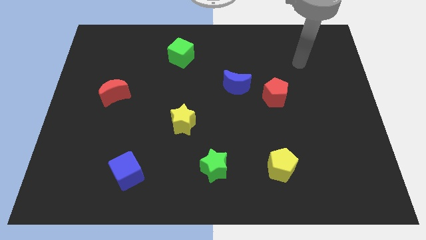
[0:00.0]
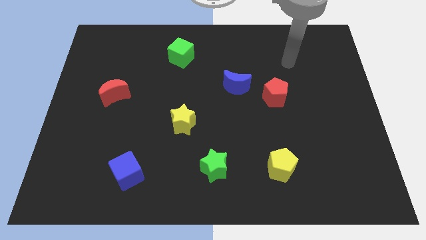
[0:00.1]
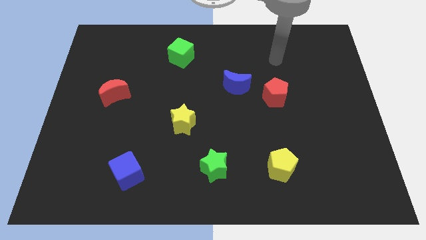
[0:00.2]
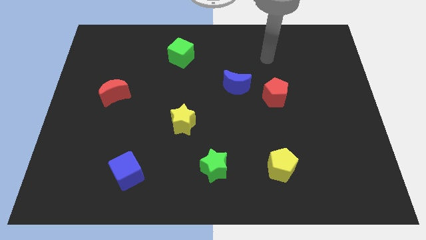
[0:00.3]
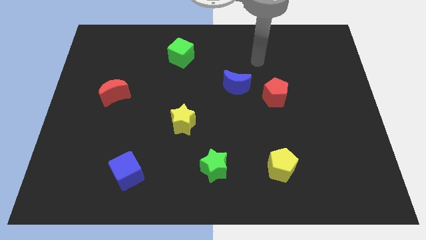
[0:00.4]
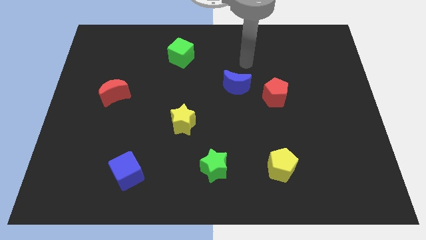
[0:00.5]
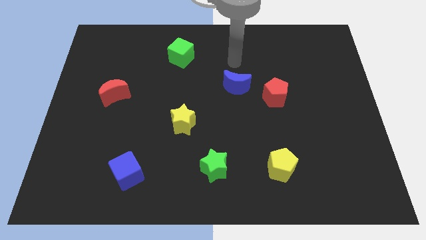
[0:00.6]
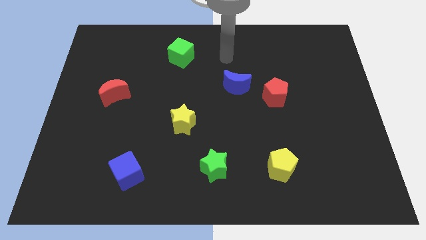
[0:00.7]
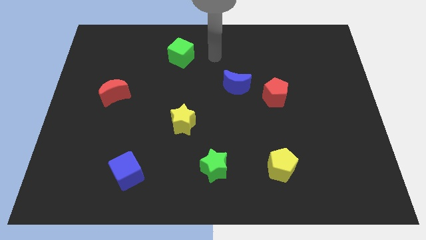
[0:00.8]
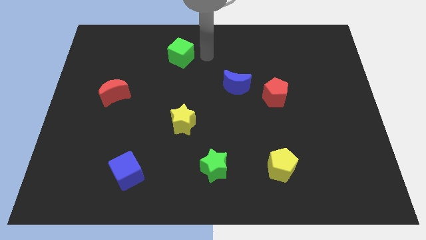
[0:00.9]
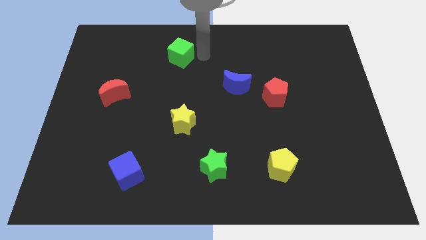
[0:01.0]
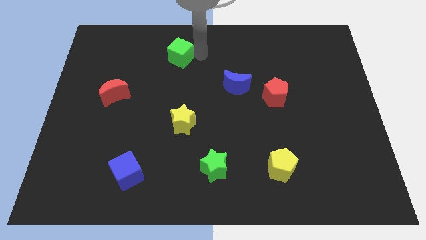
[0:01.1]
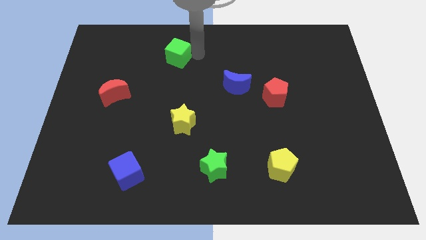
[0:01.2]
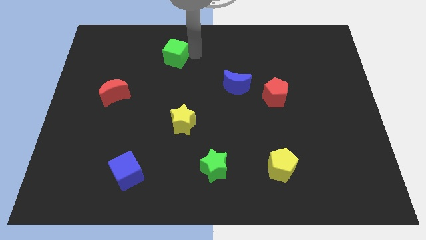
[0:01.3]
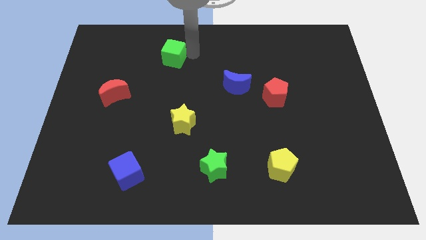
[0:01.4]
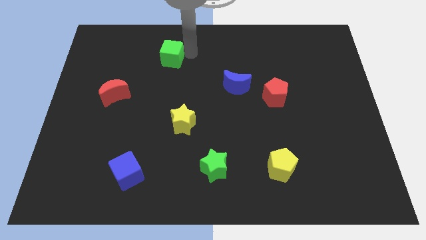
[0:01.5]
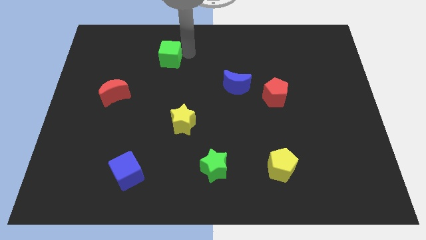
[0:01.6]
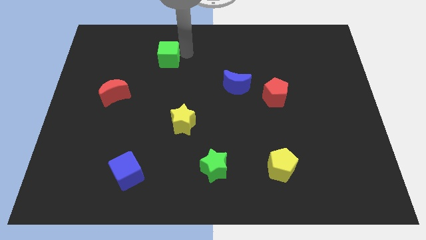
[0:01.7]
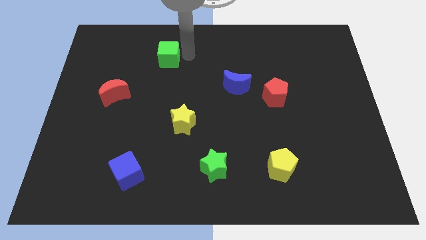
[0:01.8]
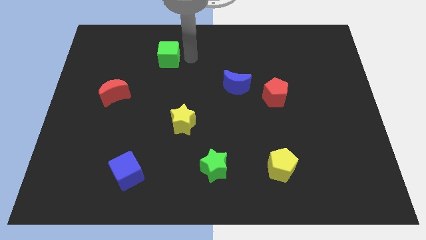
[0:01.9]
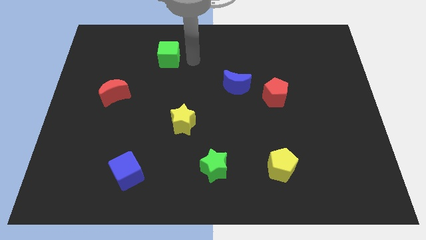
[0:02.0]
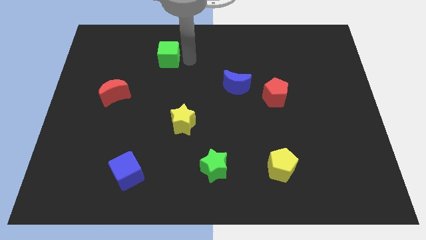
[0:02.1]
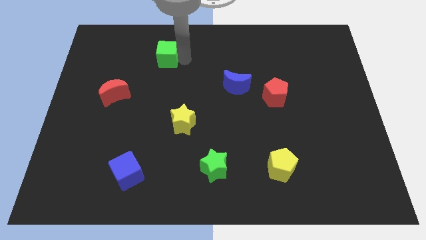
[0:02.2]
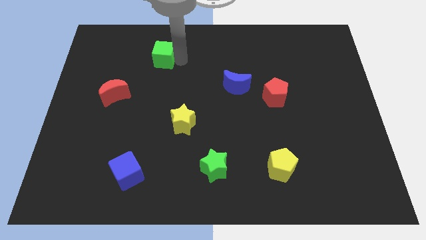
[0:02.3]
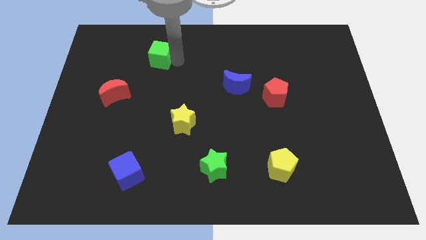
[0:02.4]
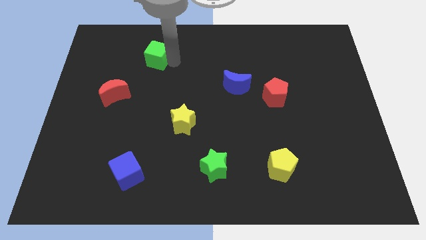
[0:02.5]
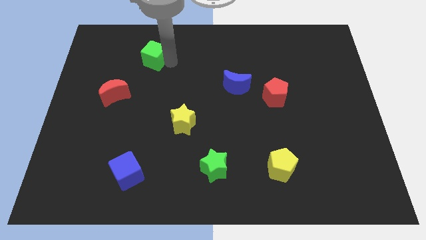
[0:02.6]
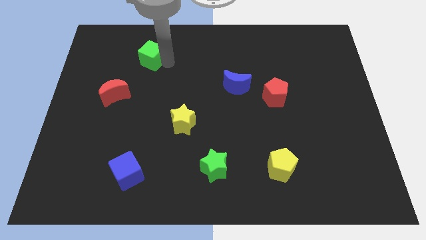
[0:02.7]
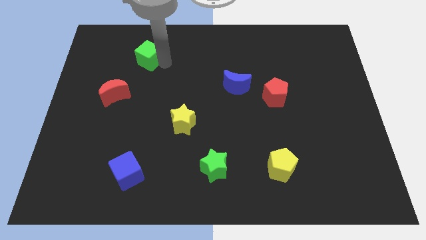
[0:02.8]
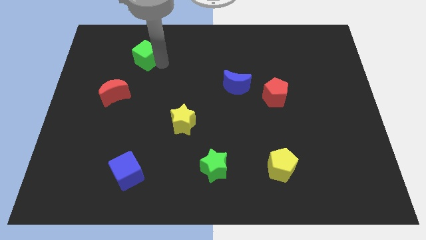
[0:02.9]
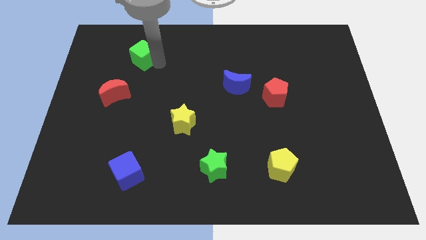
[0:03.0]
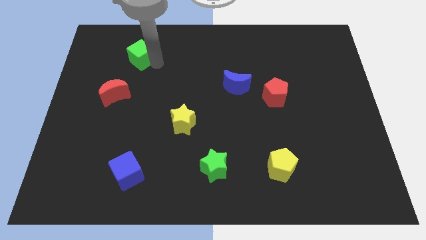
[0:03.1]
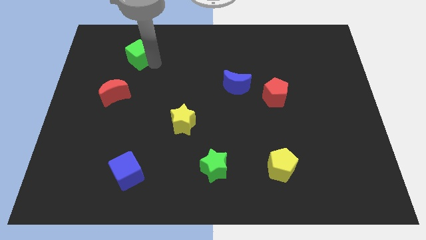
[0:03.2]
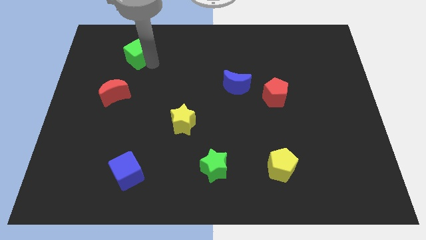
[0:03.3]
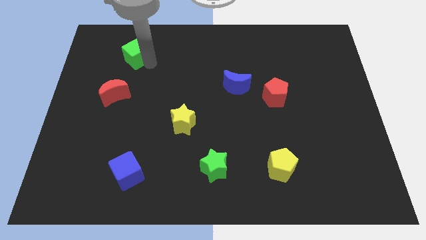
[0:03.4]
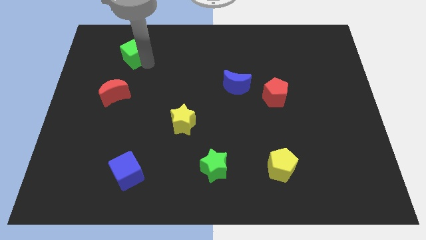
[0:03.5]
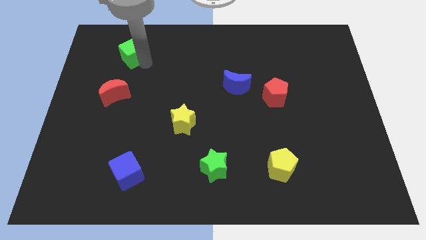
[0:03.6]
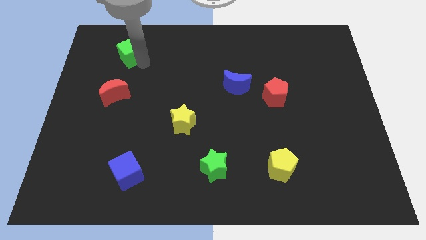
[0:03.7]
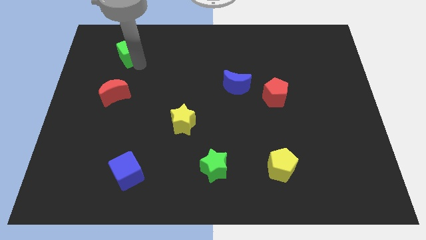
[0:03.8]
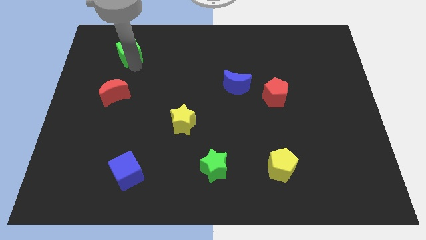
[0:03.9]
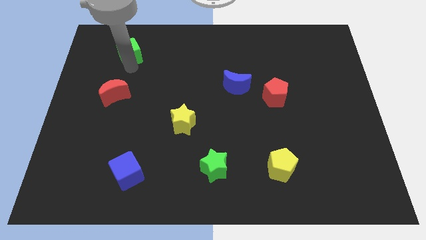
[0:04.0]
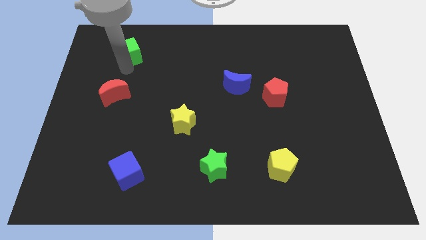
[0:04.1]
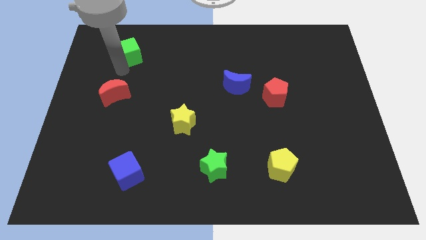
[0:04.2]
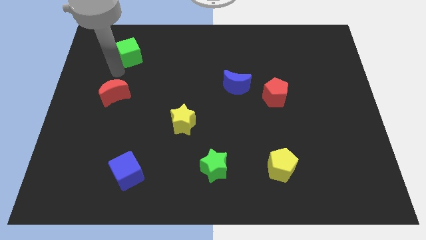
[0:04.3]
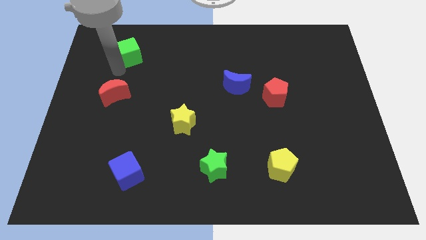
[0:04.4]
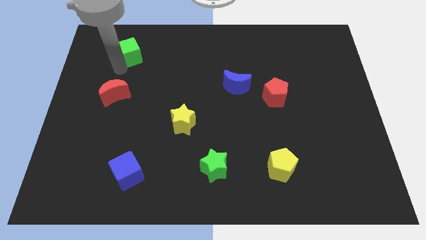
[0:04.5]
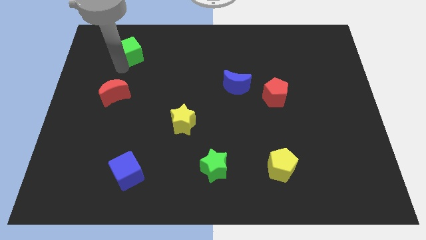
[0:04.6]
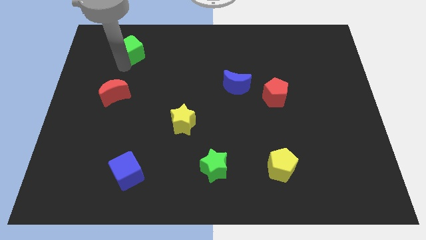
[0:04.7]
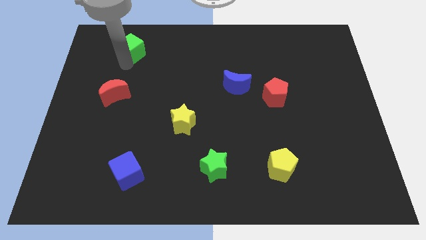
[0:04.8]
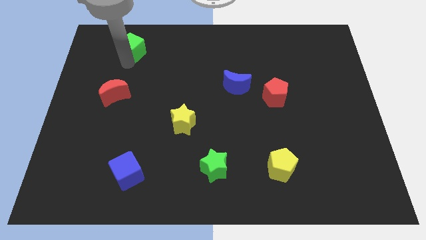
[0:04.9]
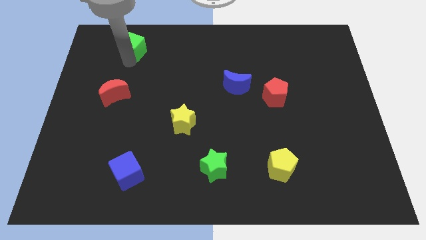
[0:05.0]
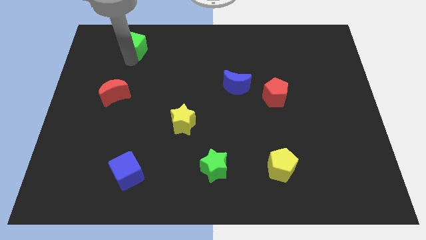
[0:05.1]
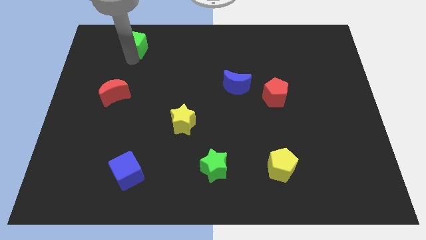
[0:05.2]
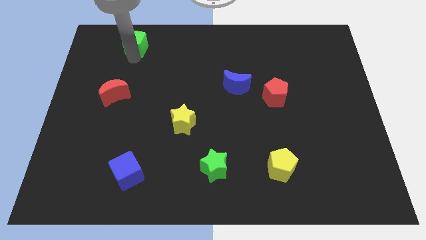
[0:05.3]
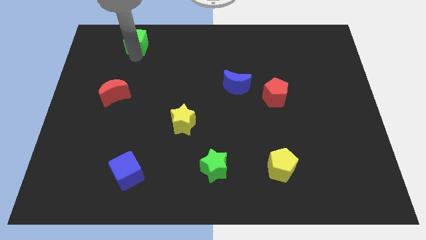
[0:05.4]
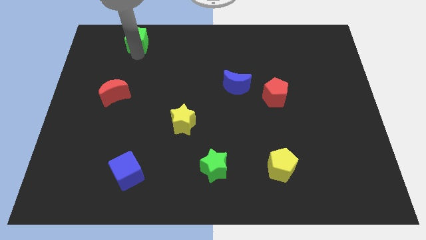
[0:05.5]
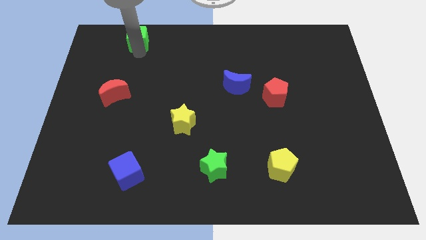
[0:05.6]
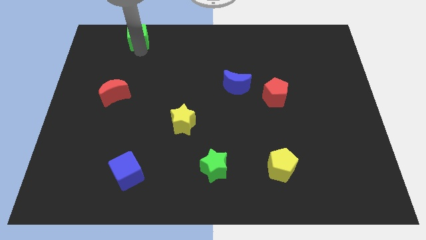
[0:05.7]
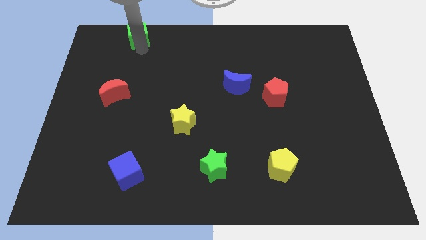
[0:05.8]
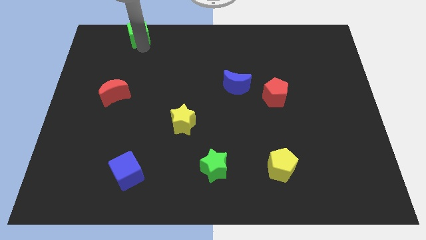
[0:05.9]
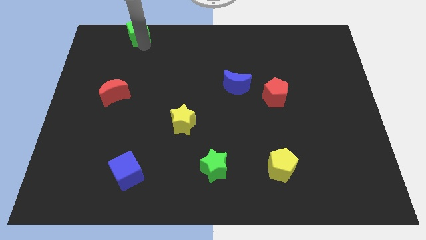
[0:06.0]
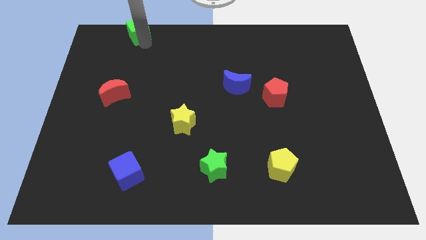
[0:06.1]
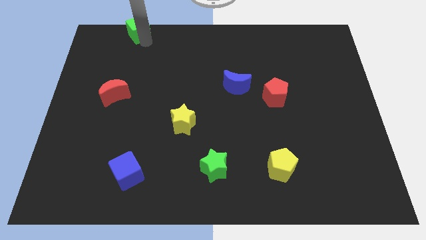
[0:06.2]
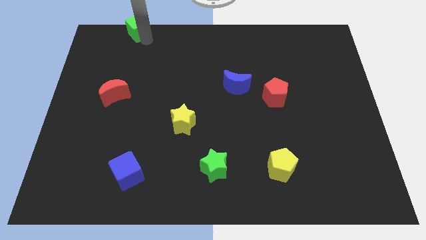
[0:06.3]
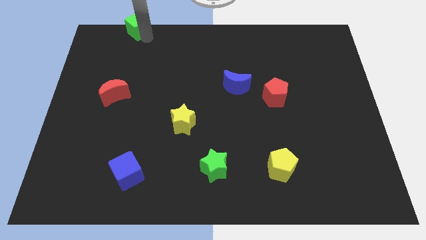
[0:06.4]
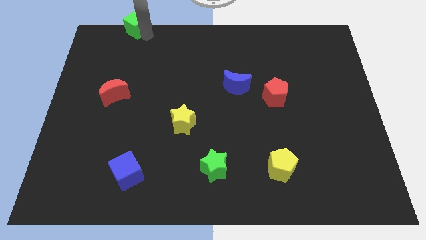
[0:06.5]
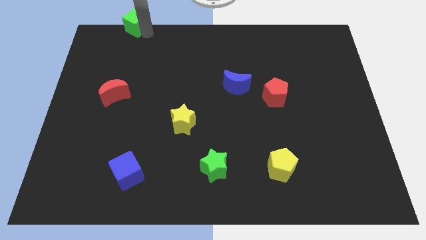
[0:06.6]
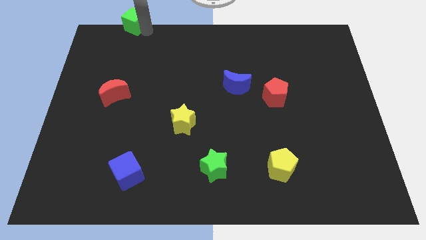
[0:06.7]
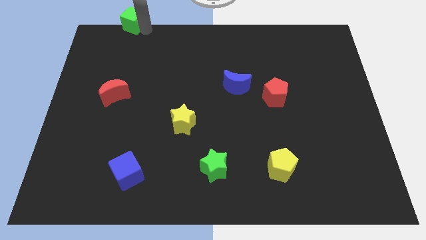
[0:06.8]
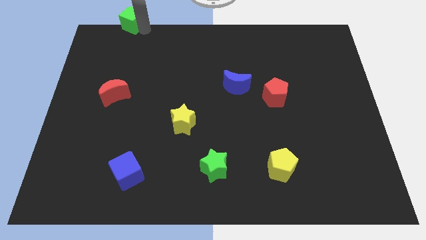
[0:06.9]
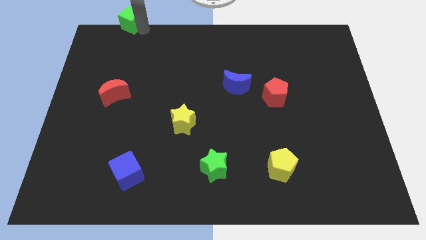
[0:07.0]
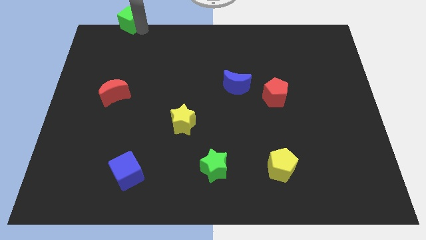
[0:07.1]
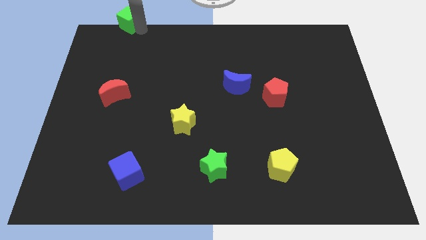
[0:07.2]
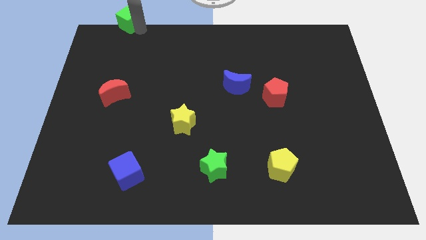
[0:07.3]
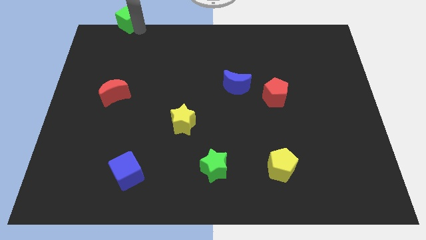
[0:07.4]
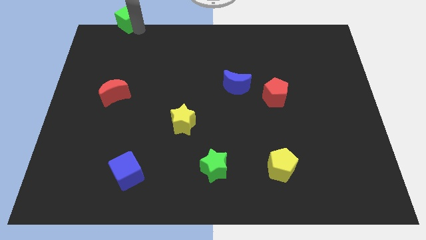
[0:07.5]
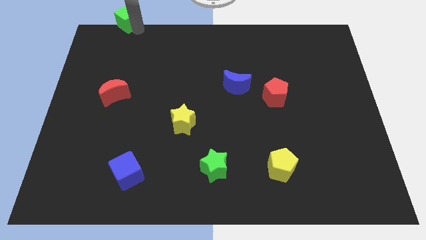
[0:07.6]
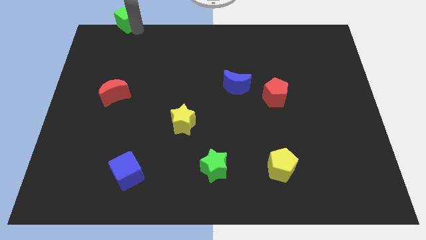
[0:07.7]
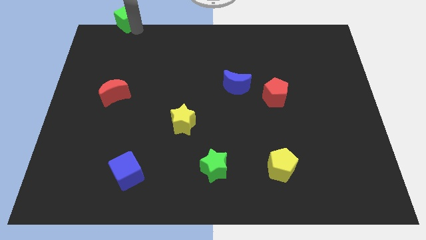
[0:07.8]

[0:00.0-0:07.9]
slide the green cube to the top left of the board
